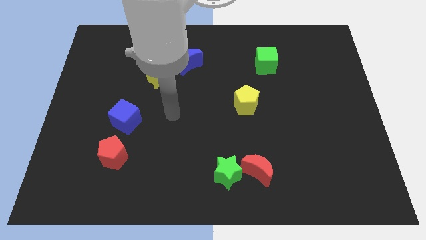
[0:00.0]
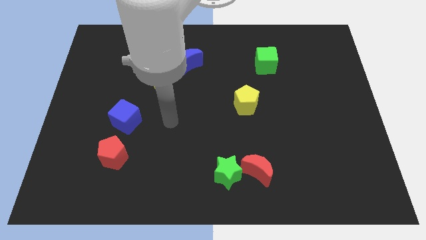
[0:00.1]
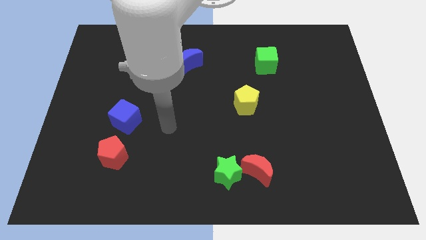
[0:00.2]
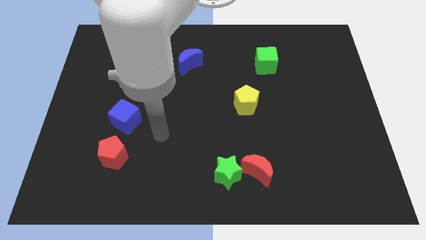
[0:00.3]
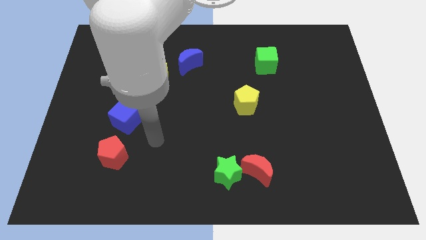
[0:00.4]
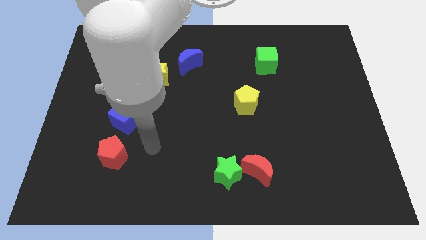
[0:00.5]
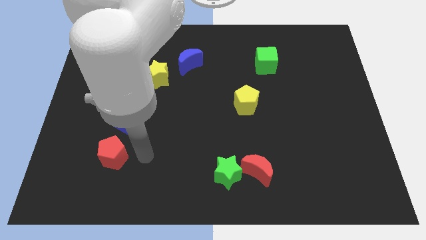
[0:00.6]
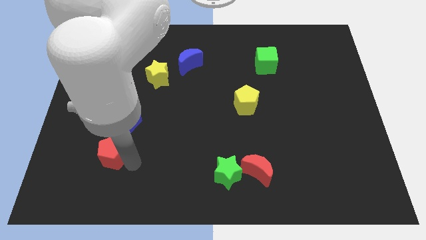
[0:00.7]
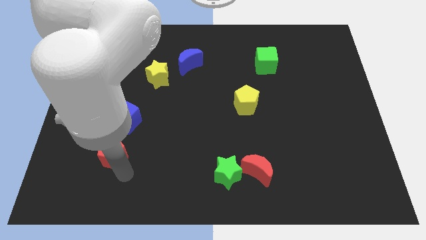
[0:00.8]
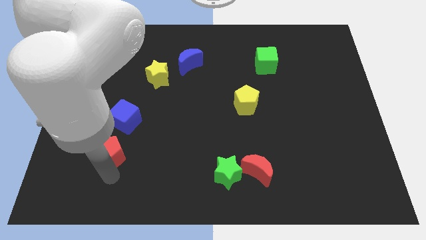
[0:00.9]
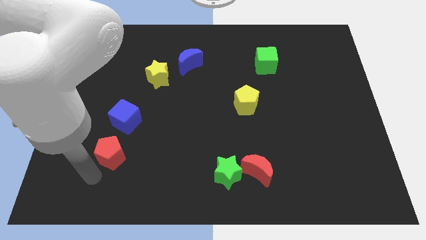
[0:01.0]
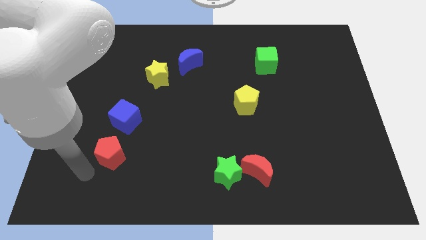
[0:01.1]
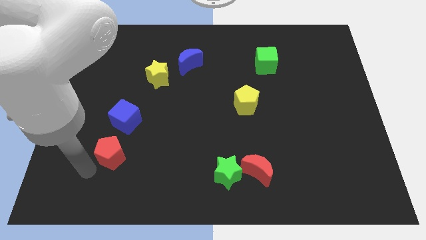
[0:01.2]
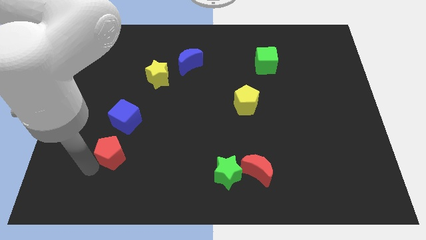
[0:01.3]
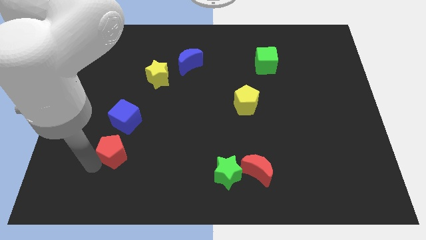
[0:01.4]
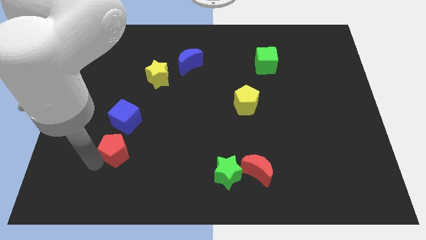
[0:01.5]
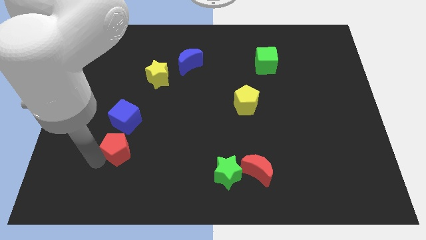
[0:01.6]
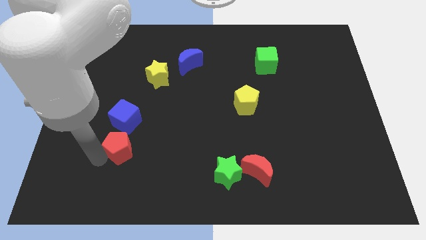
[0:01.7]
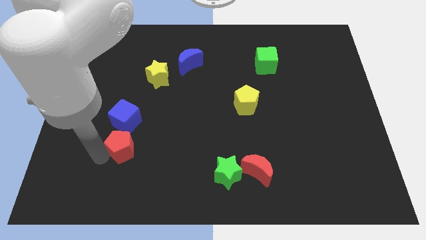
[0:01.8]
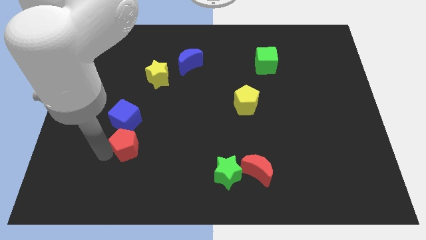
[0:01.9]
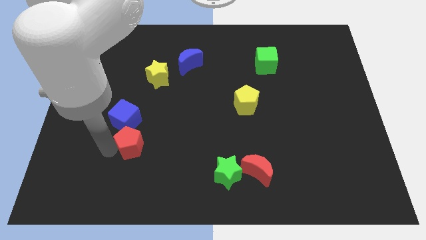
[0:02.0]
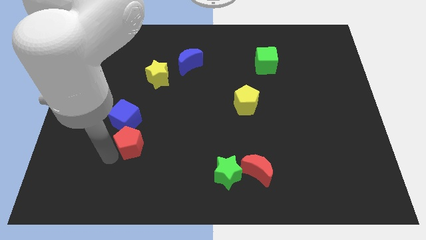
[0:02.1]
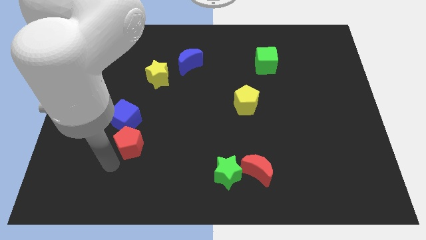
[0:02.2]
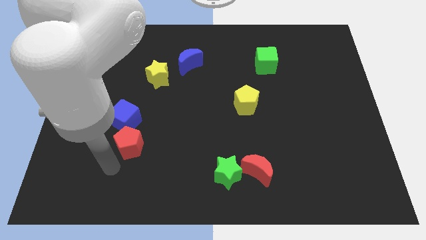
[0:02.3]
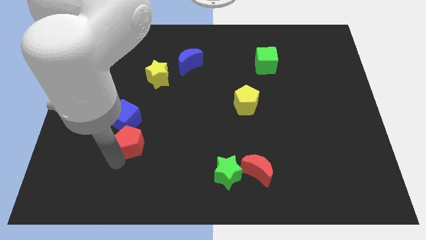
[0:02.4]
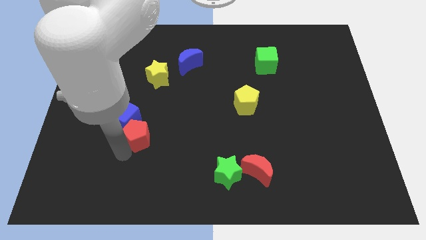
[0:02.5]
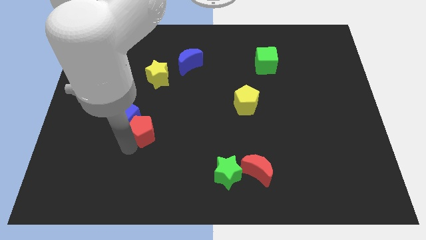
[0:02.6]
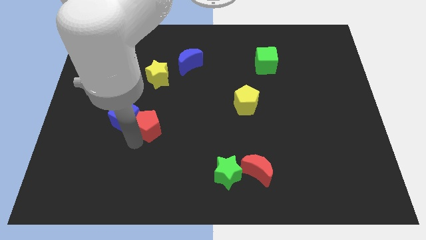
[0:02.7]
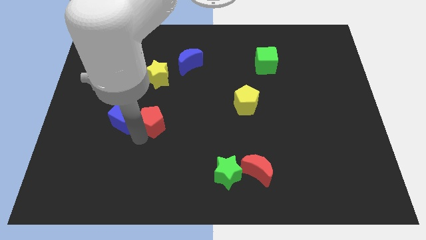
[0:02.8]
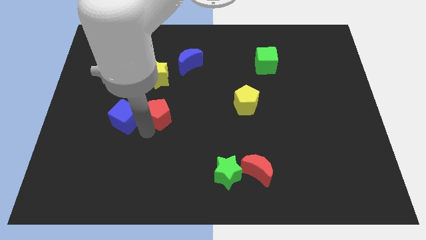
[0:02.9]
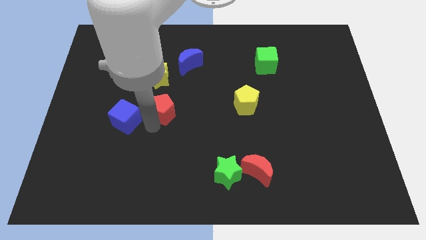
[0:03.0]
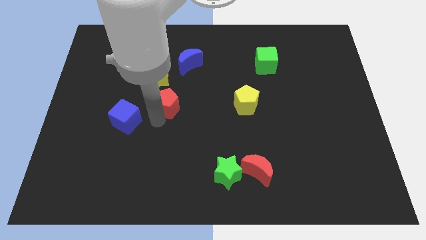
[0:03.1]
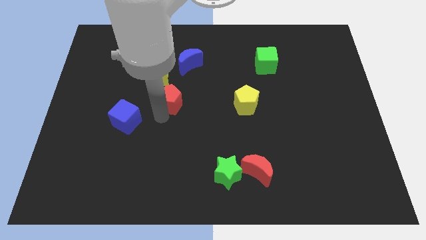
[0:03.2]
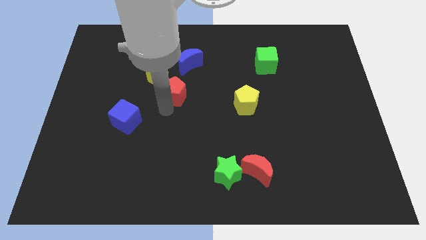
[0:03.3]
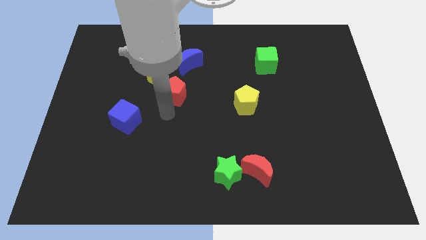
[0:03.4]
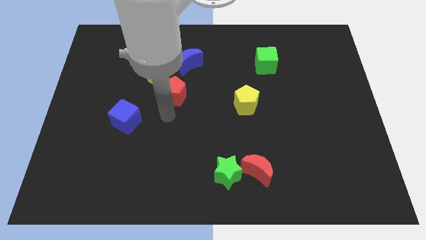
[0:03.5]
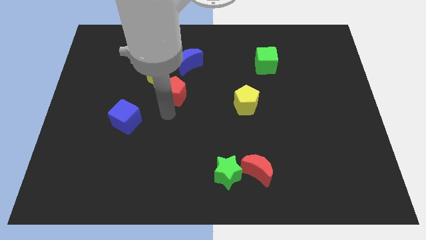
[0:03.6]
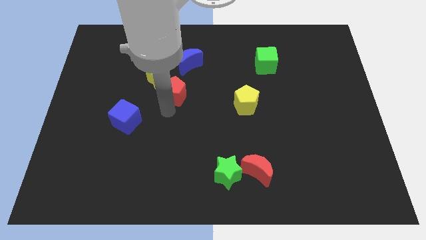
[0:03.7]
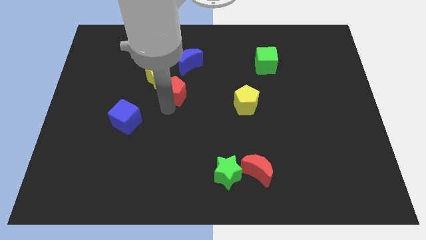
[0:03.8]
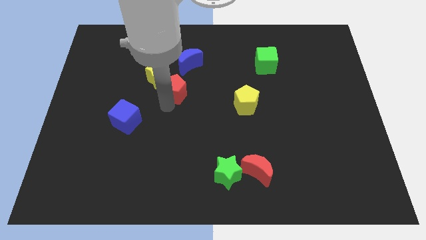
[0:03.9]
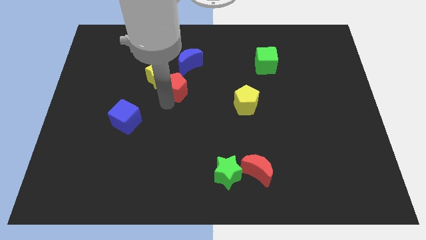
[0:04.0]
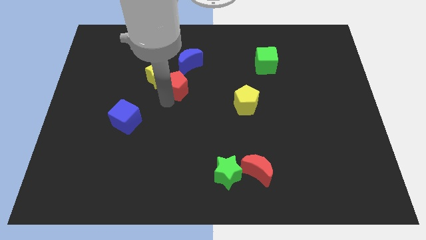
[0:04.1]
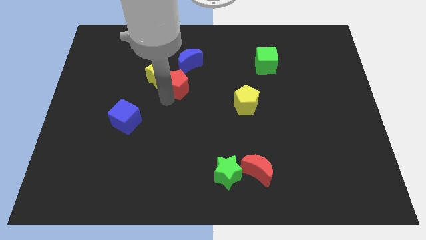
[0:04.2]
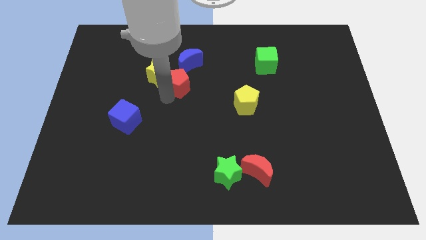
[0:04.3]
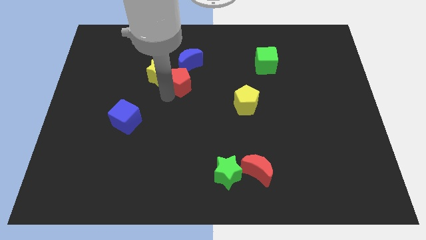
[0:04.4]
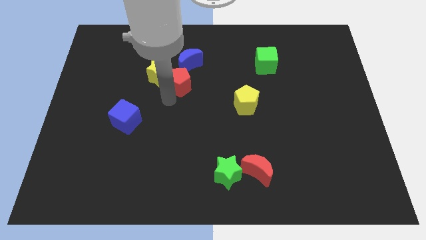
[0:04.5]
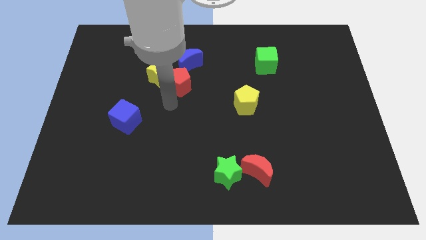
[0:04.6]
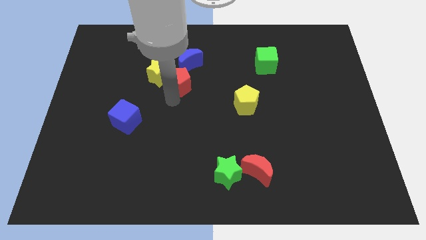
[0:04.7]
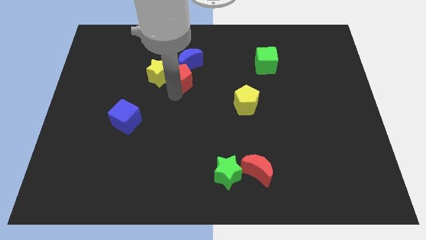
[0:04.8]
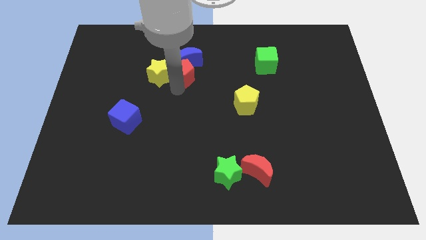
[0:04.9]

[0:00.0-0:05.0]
move the red pentagon to the blue moon

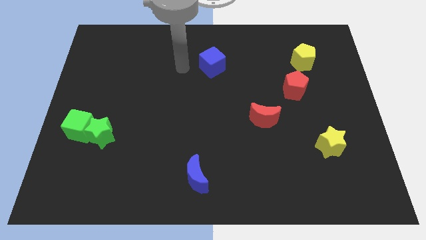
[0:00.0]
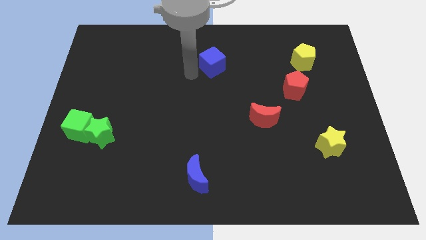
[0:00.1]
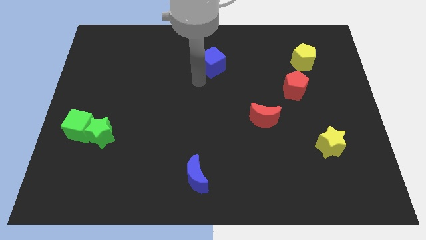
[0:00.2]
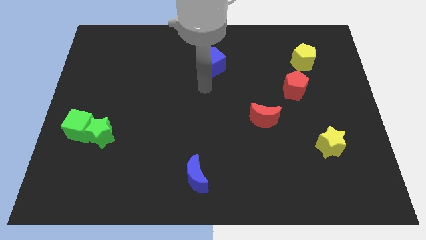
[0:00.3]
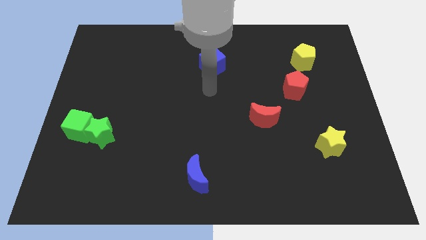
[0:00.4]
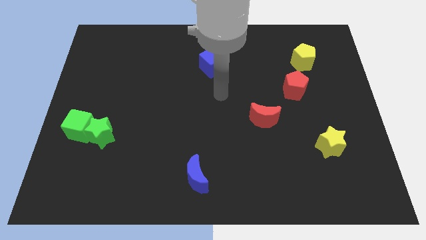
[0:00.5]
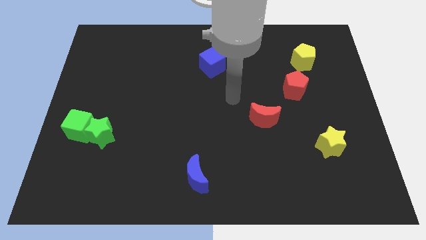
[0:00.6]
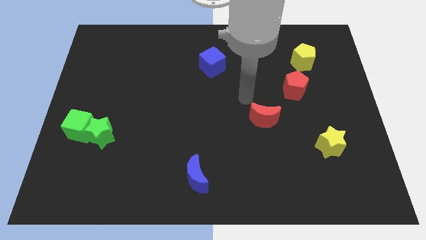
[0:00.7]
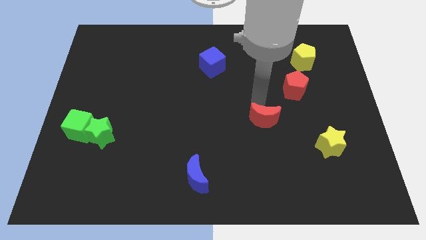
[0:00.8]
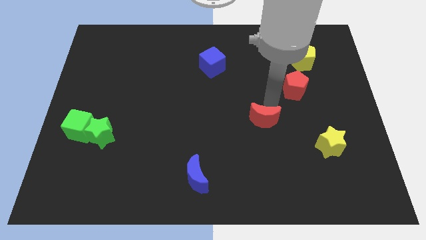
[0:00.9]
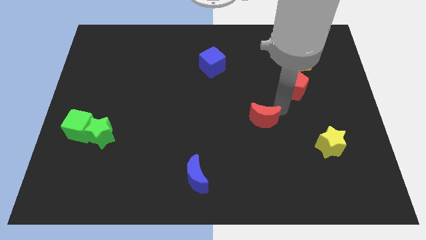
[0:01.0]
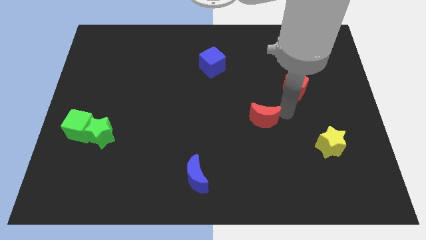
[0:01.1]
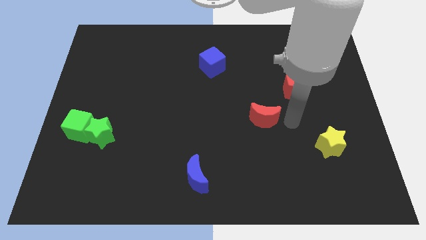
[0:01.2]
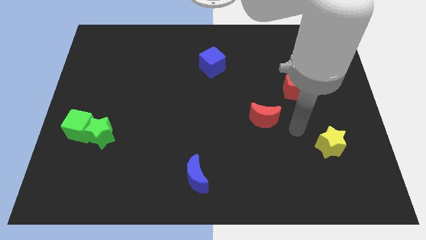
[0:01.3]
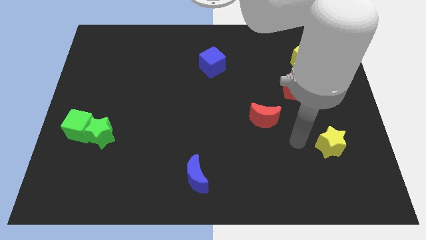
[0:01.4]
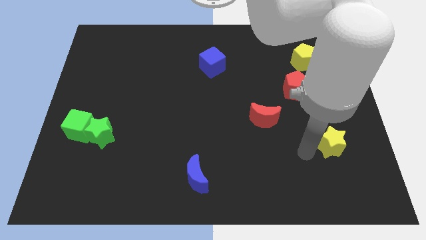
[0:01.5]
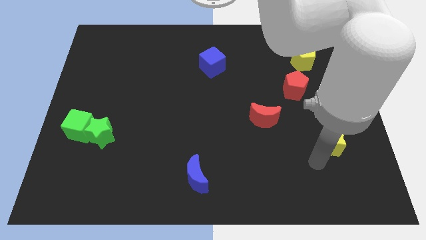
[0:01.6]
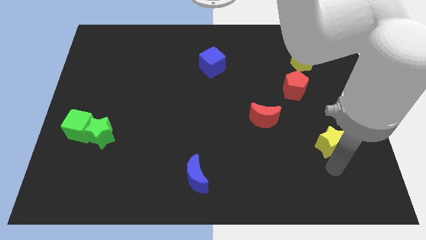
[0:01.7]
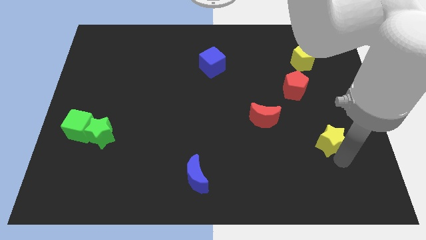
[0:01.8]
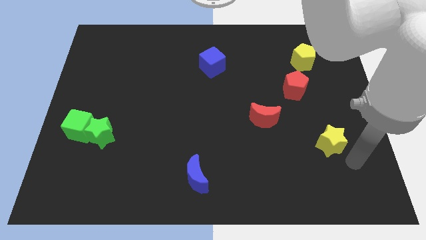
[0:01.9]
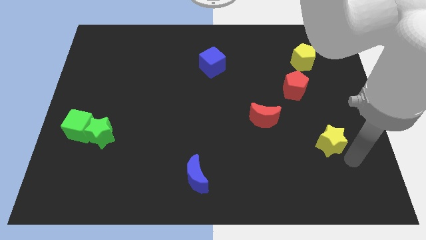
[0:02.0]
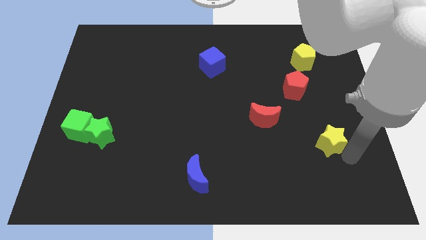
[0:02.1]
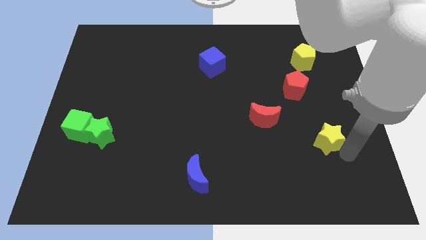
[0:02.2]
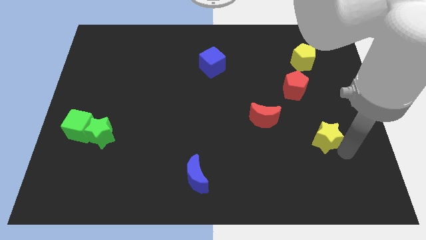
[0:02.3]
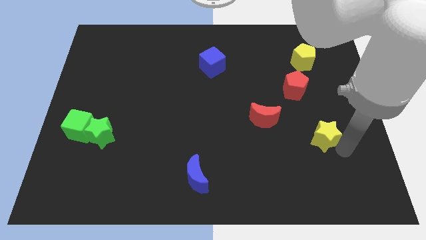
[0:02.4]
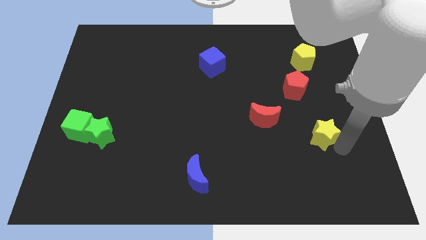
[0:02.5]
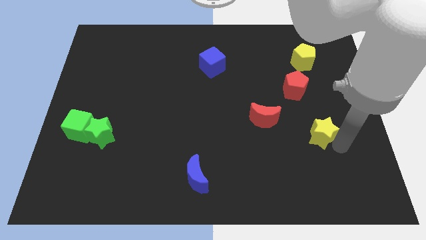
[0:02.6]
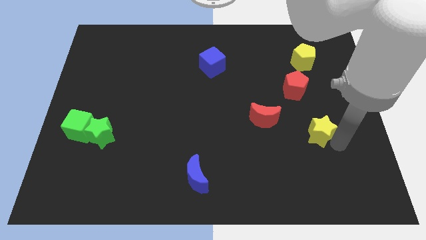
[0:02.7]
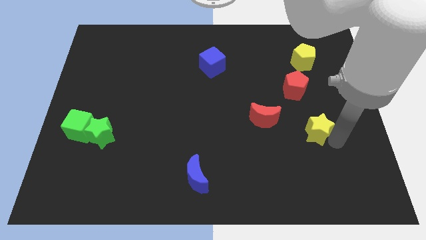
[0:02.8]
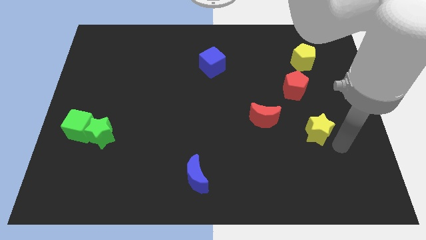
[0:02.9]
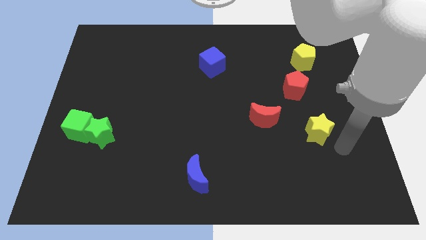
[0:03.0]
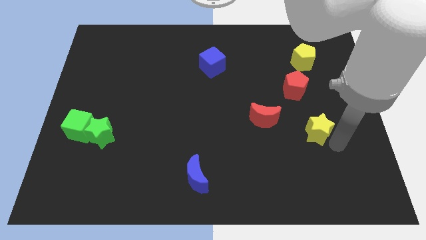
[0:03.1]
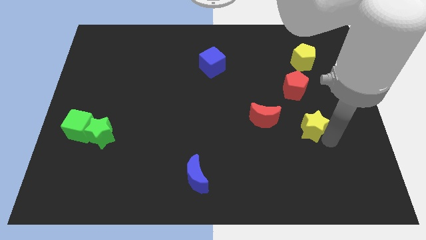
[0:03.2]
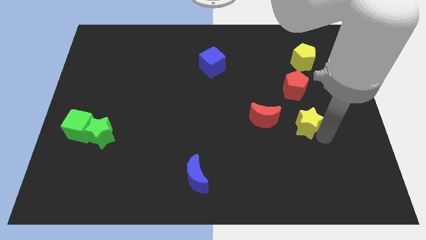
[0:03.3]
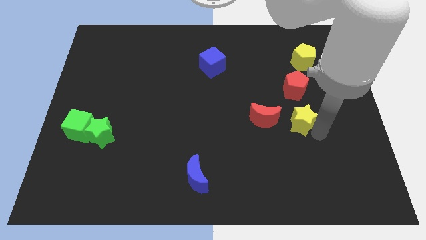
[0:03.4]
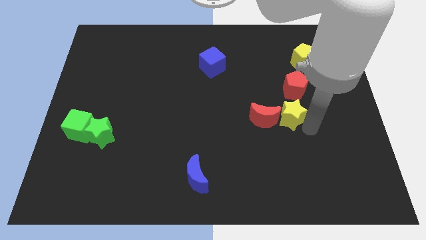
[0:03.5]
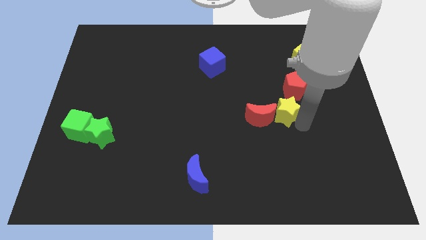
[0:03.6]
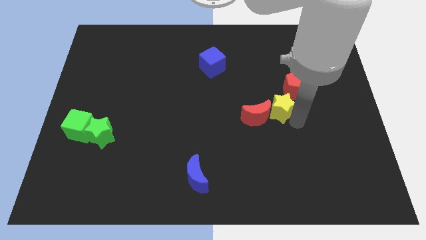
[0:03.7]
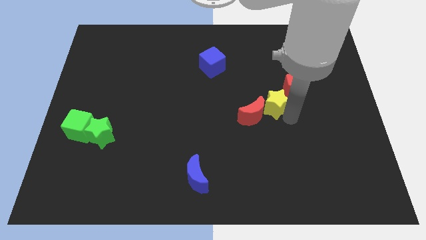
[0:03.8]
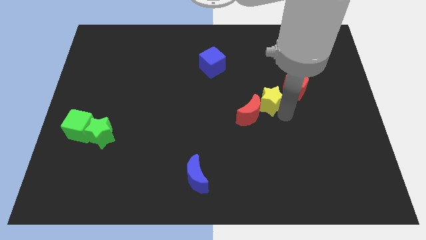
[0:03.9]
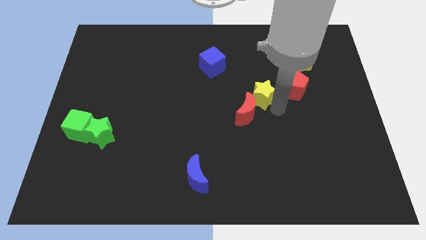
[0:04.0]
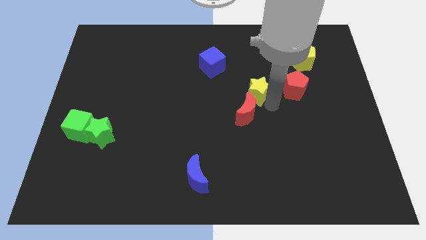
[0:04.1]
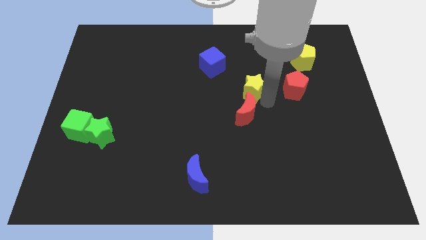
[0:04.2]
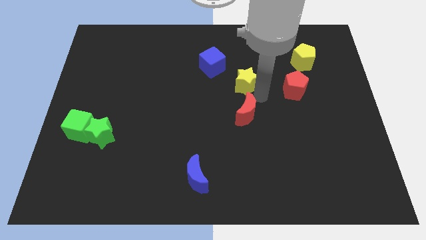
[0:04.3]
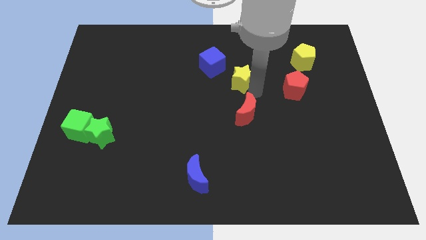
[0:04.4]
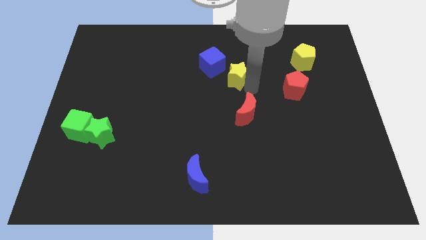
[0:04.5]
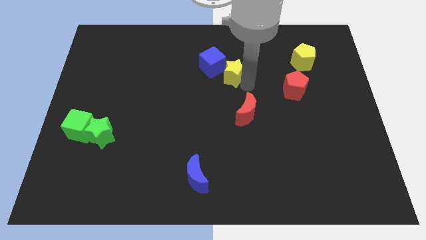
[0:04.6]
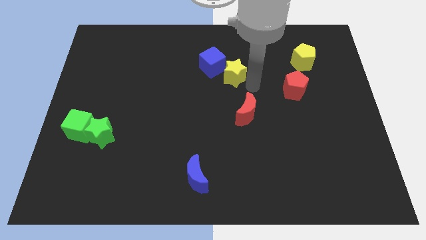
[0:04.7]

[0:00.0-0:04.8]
push the yellow star towards the blue cube
